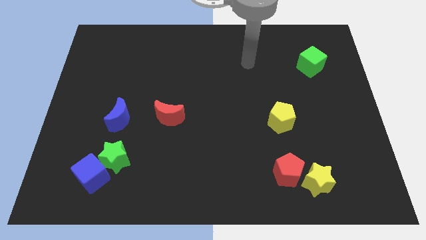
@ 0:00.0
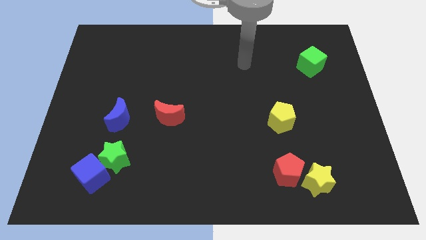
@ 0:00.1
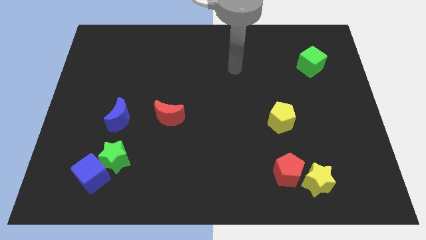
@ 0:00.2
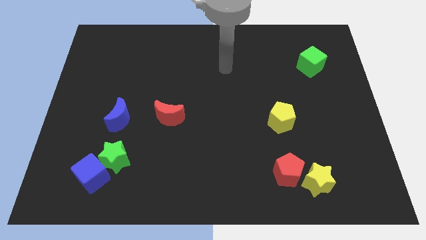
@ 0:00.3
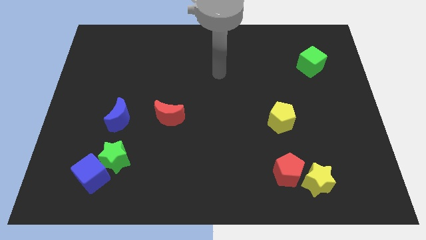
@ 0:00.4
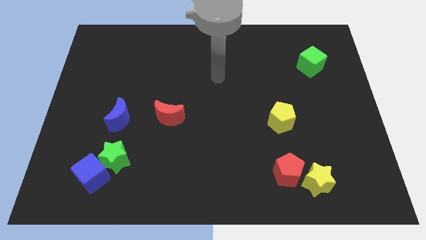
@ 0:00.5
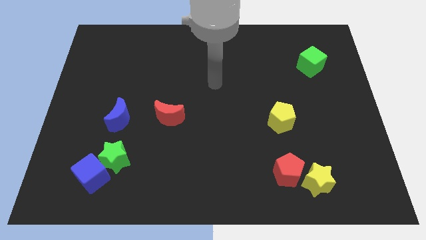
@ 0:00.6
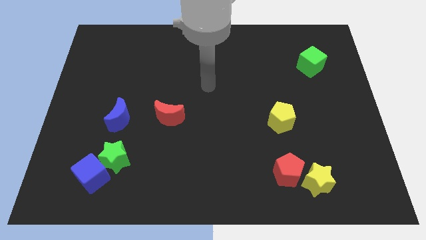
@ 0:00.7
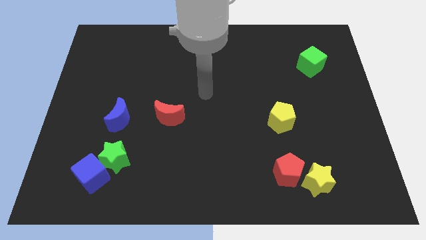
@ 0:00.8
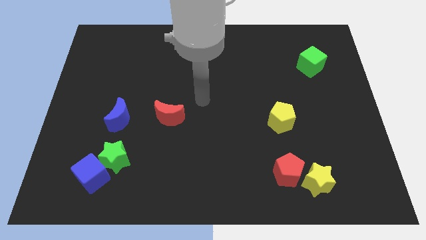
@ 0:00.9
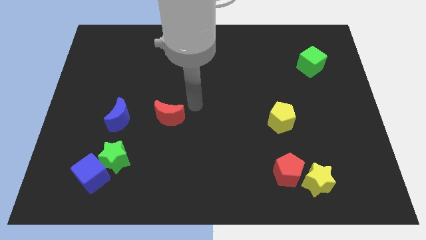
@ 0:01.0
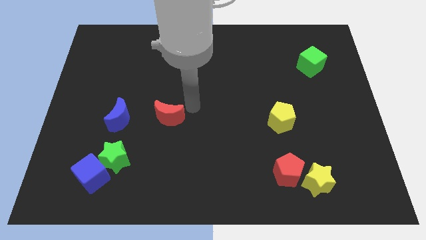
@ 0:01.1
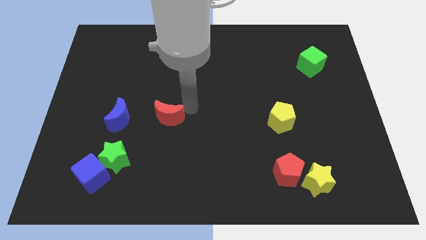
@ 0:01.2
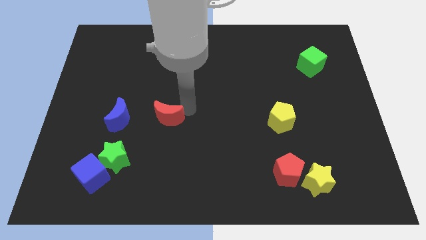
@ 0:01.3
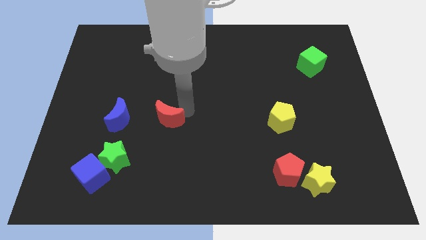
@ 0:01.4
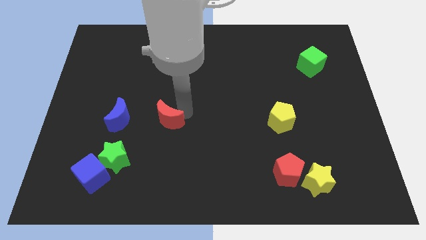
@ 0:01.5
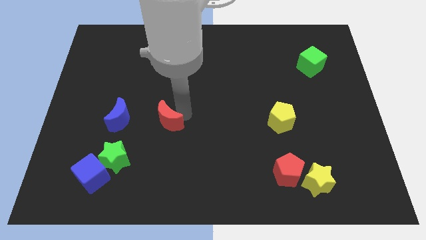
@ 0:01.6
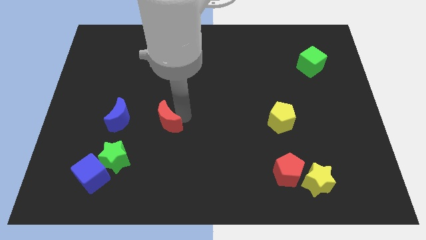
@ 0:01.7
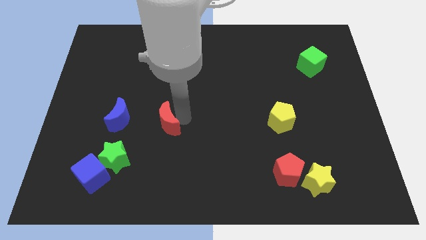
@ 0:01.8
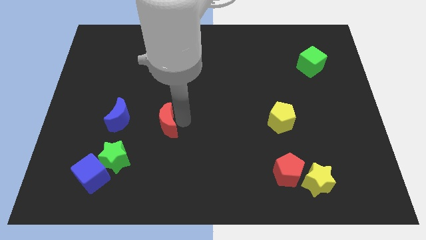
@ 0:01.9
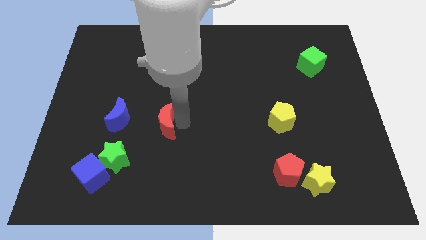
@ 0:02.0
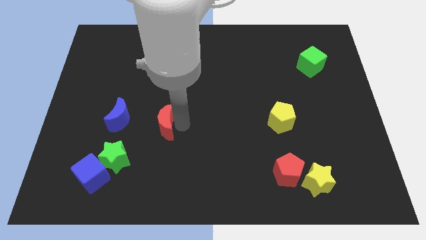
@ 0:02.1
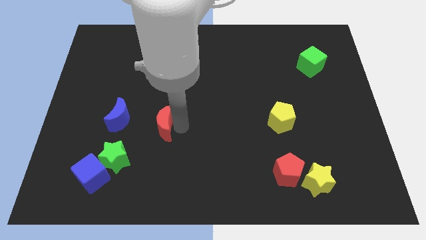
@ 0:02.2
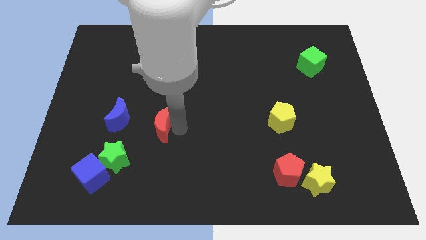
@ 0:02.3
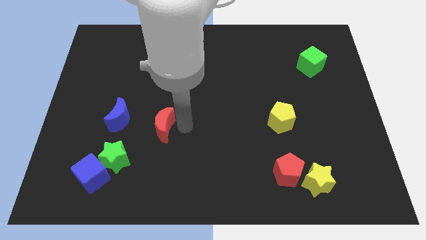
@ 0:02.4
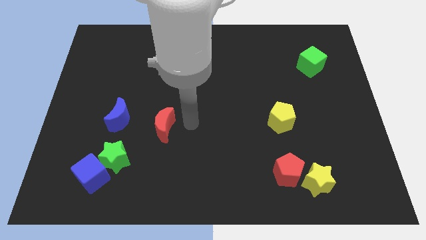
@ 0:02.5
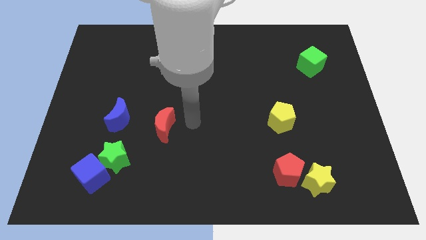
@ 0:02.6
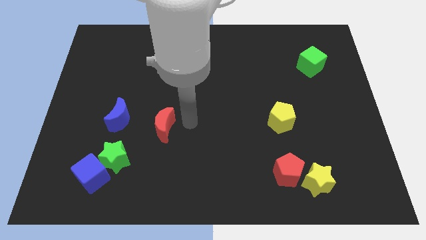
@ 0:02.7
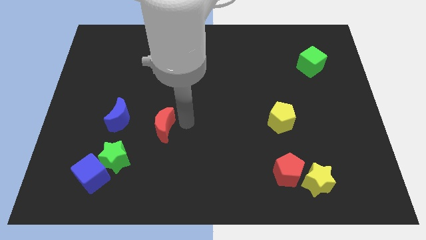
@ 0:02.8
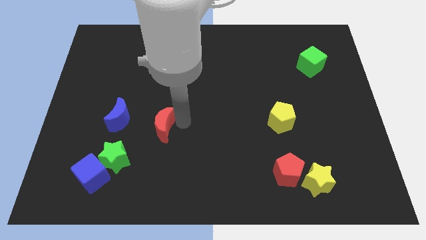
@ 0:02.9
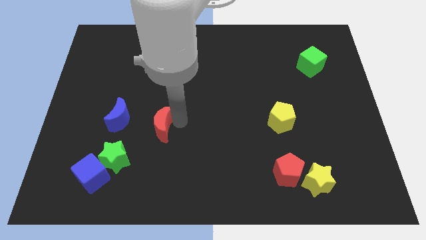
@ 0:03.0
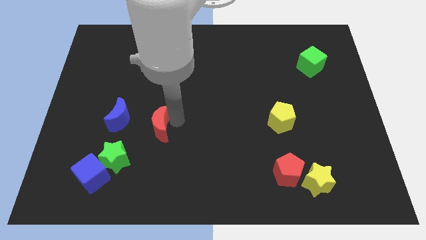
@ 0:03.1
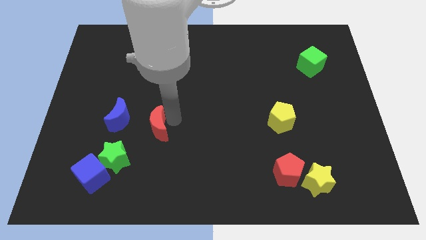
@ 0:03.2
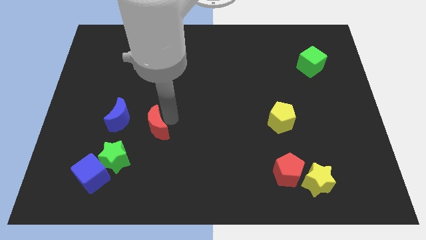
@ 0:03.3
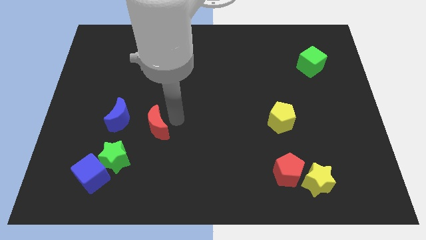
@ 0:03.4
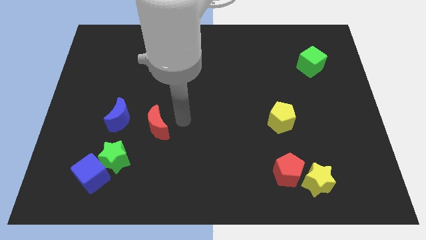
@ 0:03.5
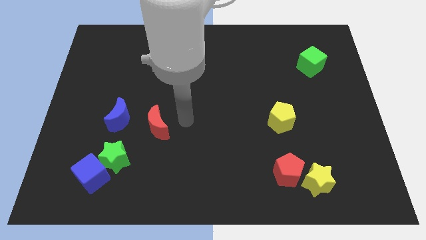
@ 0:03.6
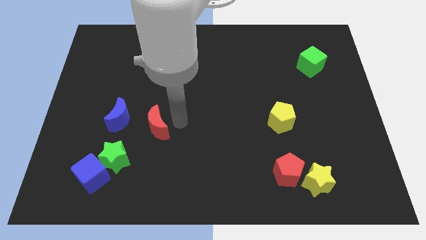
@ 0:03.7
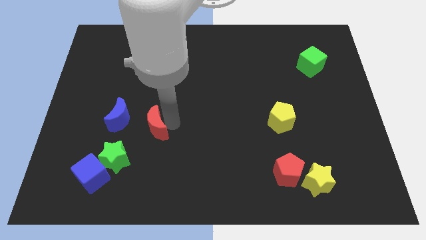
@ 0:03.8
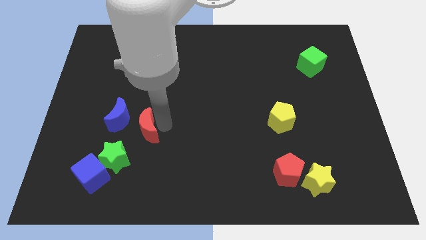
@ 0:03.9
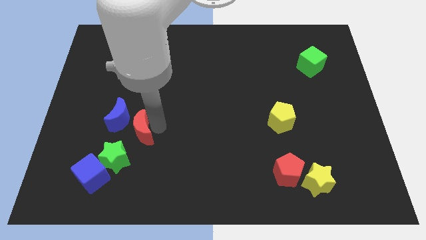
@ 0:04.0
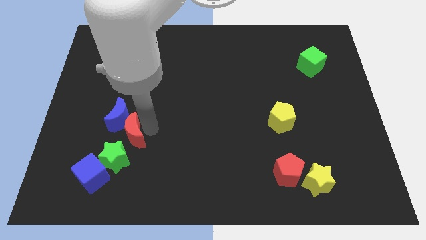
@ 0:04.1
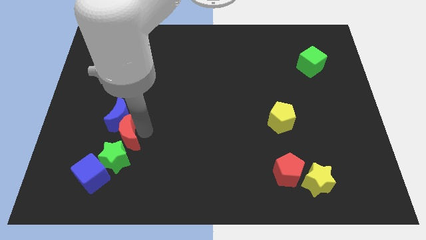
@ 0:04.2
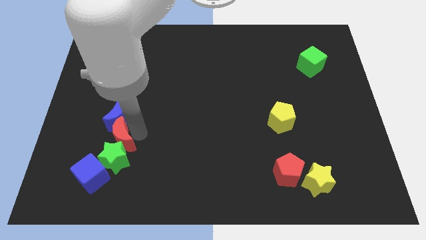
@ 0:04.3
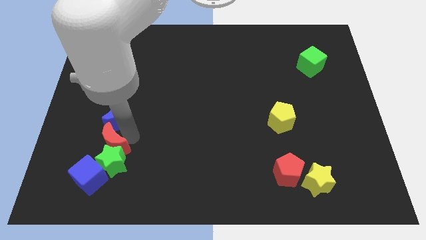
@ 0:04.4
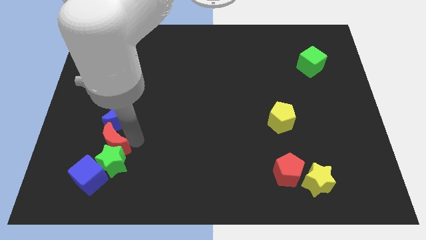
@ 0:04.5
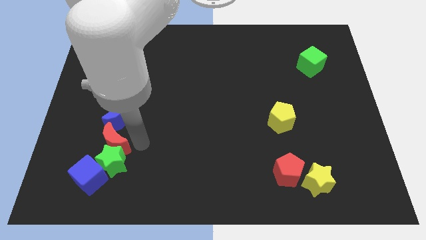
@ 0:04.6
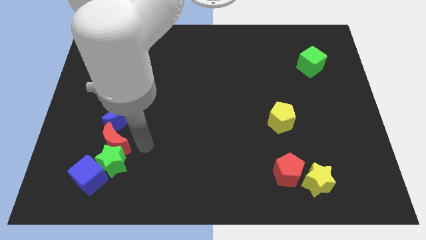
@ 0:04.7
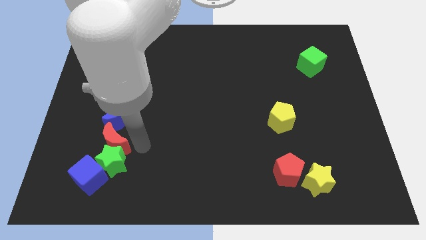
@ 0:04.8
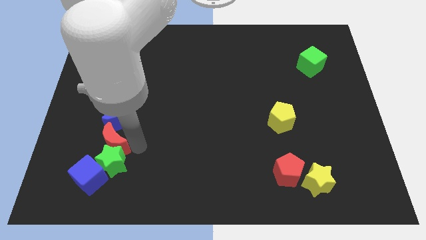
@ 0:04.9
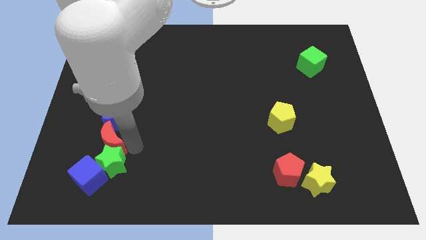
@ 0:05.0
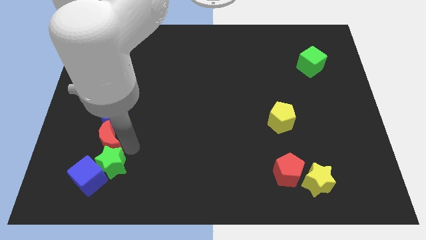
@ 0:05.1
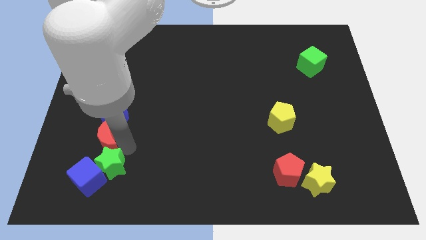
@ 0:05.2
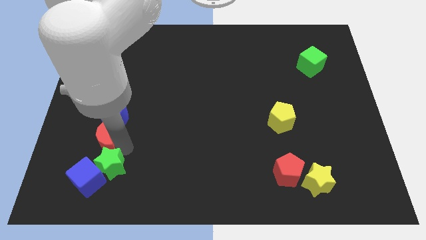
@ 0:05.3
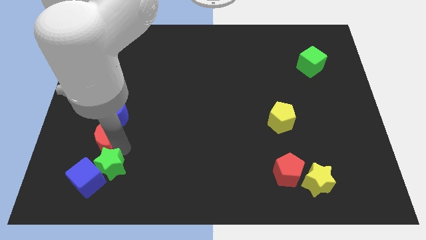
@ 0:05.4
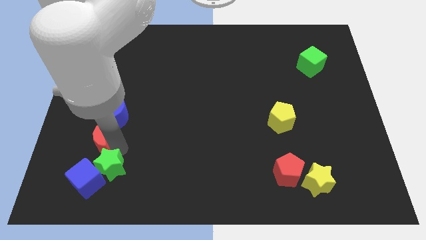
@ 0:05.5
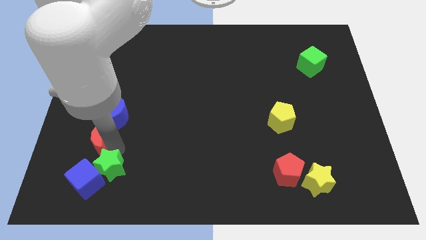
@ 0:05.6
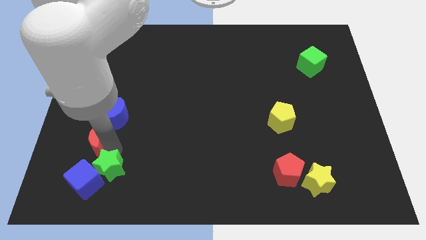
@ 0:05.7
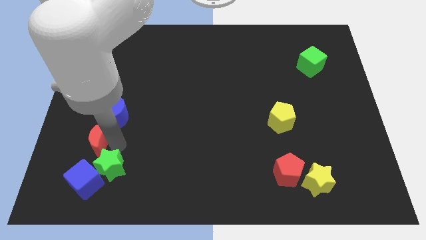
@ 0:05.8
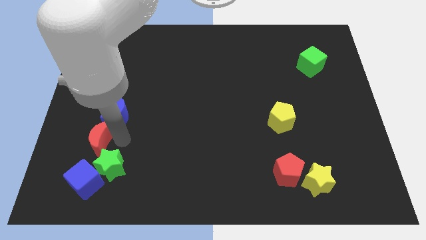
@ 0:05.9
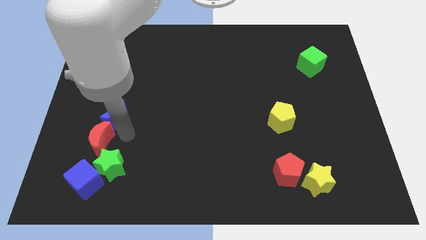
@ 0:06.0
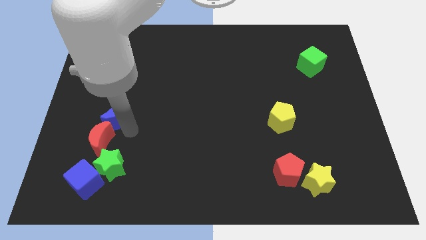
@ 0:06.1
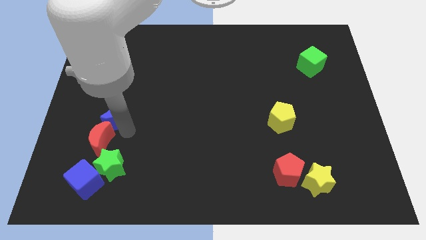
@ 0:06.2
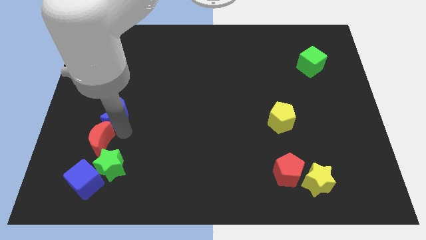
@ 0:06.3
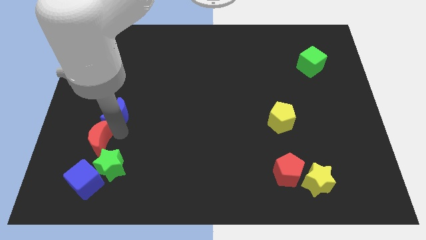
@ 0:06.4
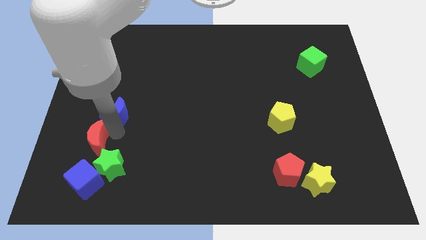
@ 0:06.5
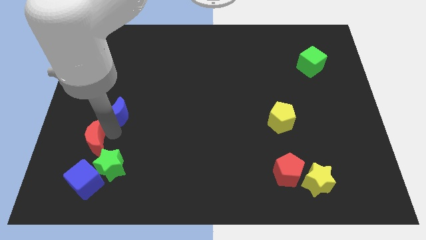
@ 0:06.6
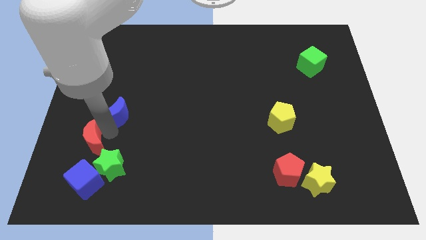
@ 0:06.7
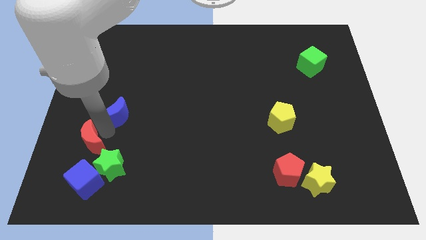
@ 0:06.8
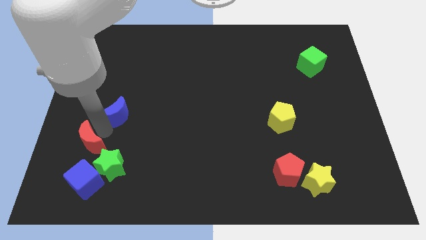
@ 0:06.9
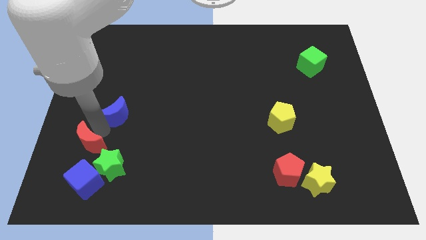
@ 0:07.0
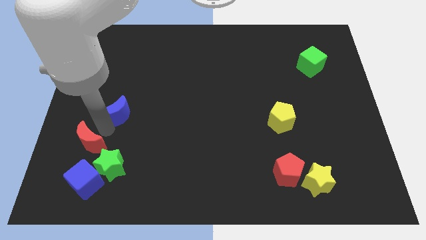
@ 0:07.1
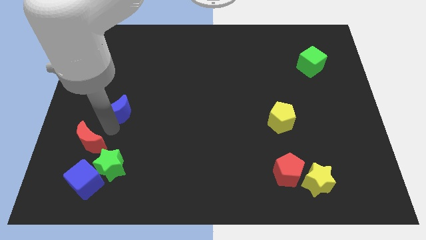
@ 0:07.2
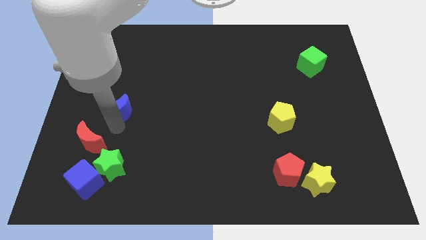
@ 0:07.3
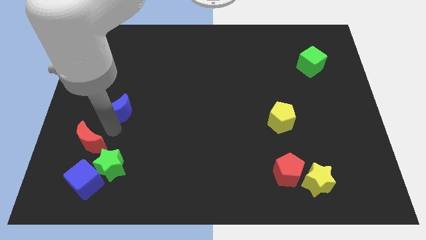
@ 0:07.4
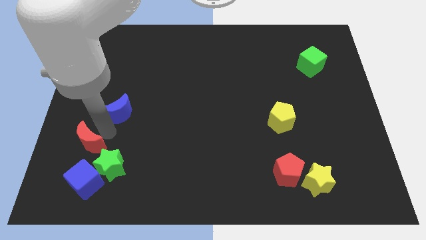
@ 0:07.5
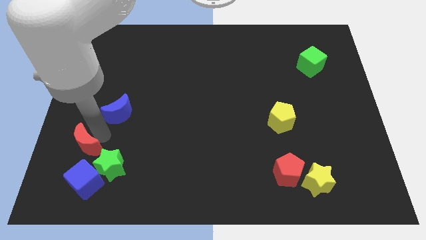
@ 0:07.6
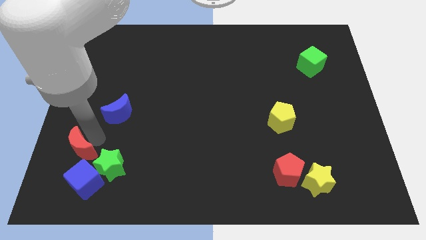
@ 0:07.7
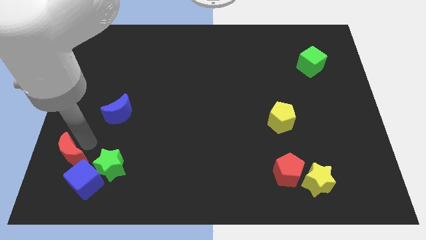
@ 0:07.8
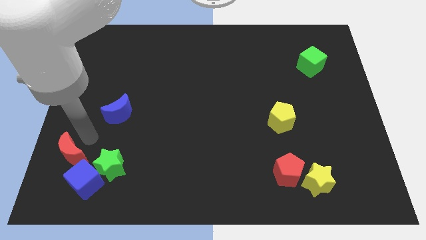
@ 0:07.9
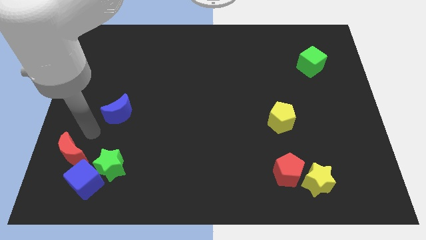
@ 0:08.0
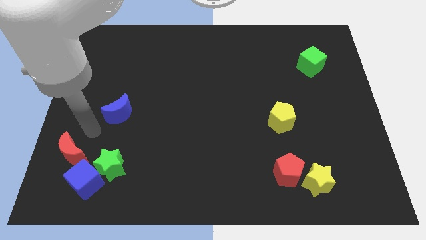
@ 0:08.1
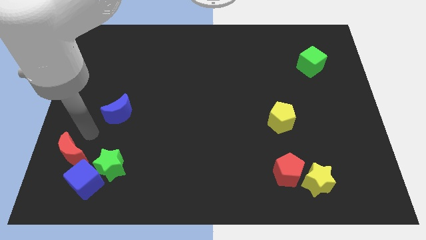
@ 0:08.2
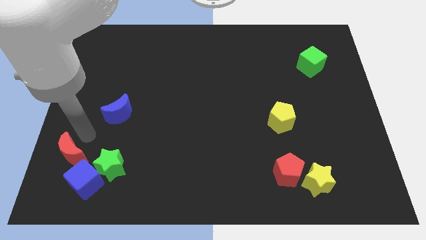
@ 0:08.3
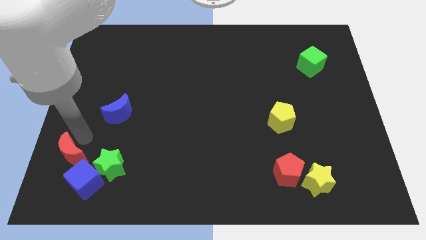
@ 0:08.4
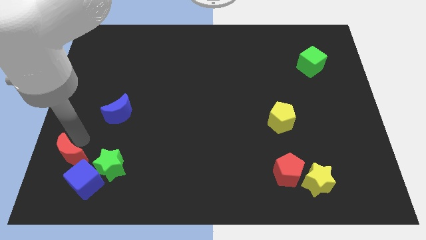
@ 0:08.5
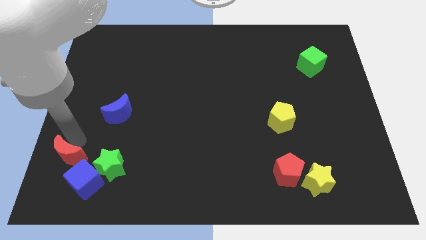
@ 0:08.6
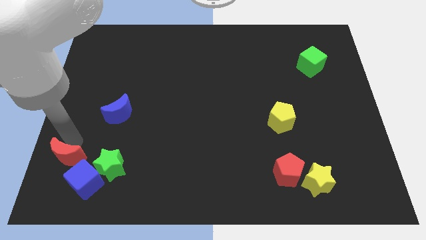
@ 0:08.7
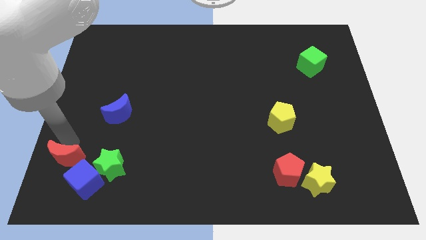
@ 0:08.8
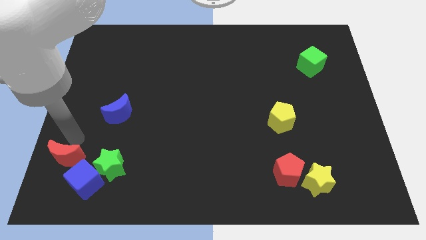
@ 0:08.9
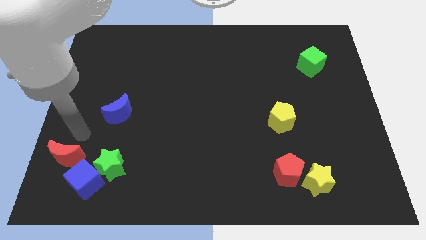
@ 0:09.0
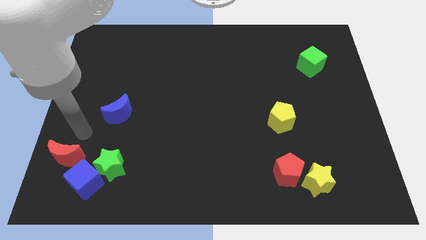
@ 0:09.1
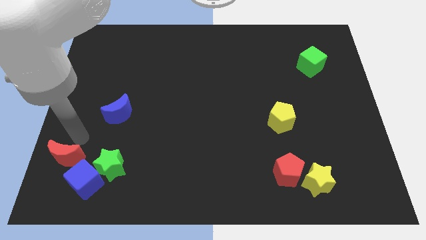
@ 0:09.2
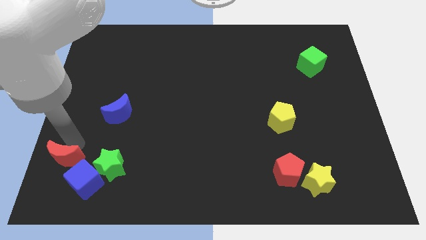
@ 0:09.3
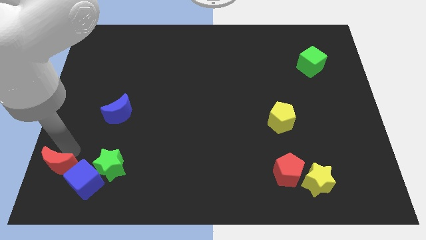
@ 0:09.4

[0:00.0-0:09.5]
put the red moon to the bottom left
